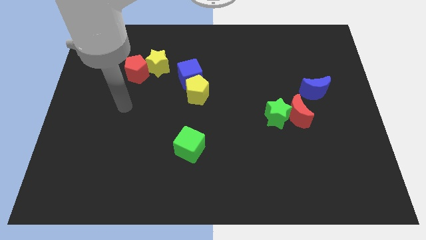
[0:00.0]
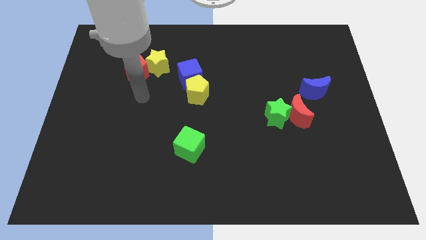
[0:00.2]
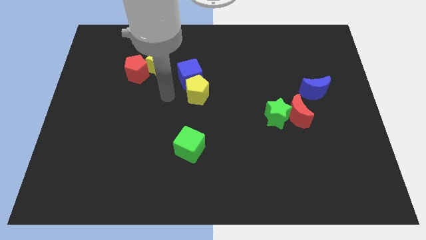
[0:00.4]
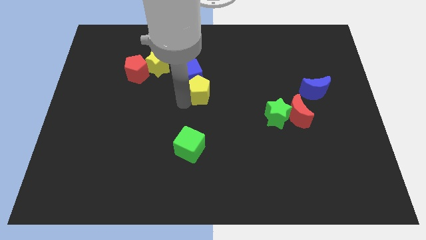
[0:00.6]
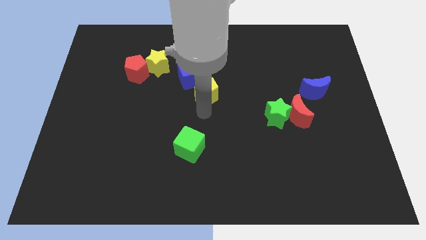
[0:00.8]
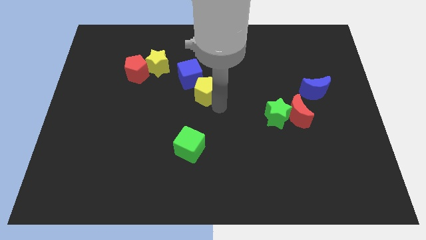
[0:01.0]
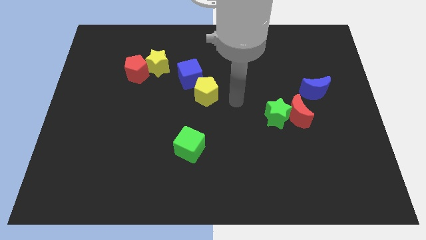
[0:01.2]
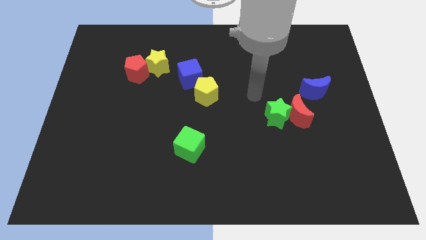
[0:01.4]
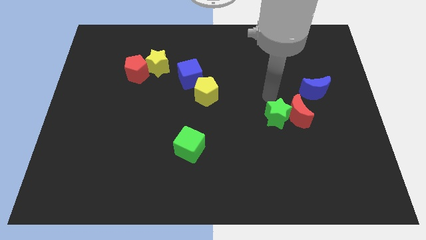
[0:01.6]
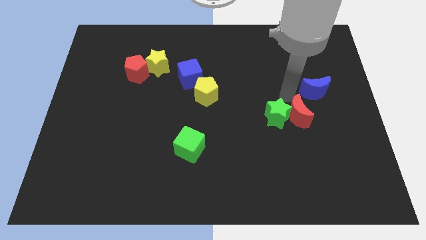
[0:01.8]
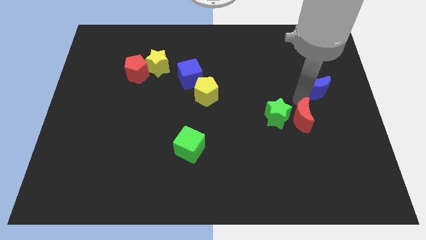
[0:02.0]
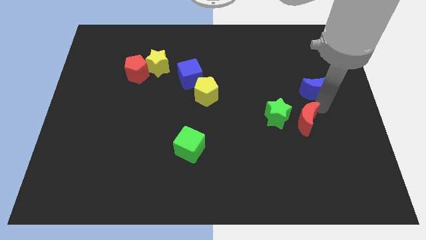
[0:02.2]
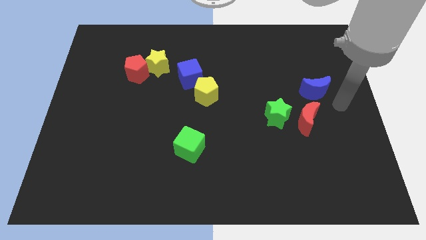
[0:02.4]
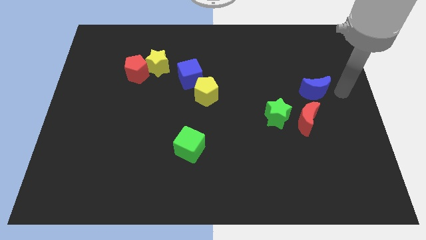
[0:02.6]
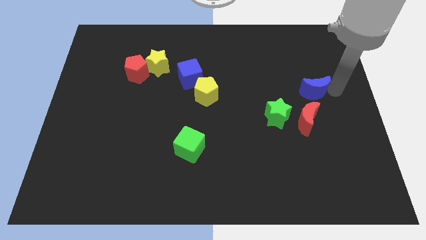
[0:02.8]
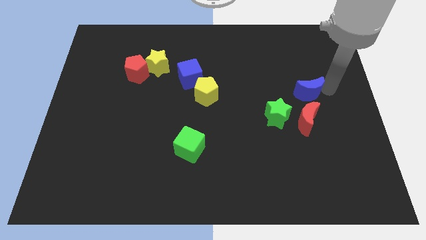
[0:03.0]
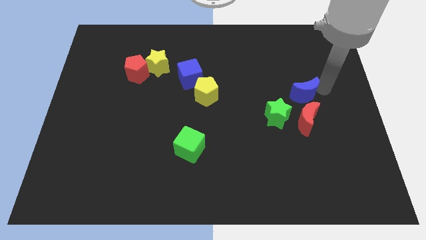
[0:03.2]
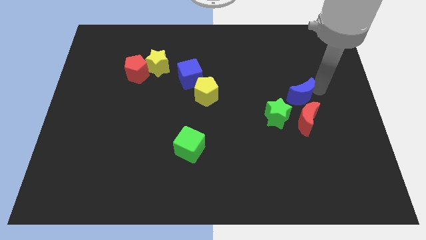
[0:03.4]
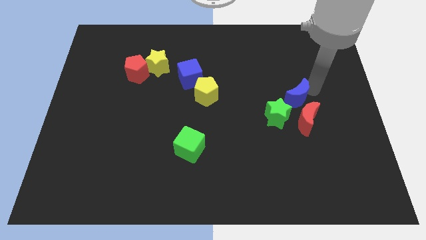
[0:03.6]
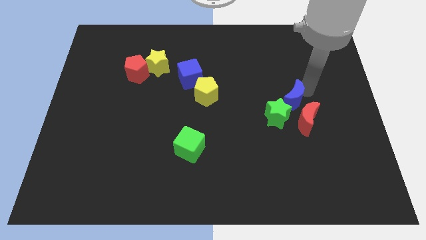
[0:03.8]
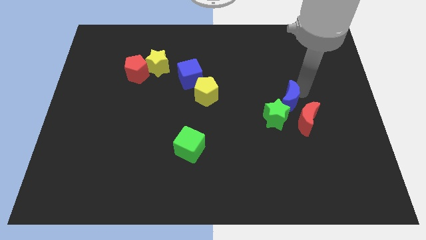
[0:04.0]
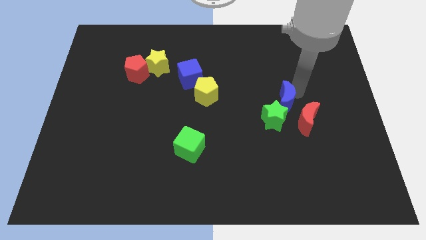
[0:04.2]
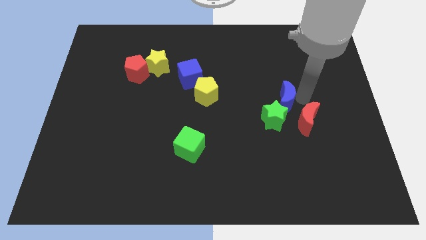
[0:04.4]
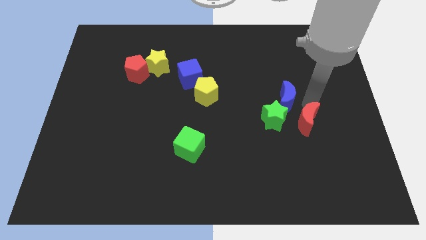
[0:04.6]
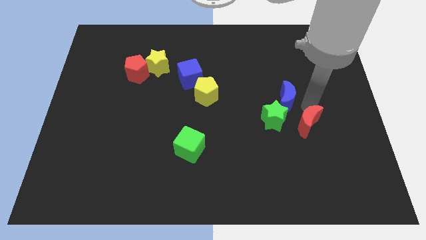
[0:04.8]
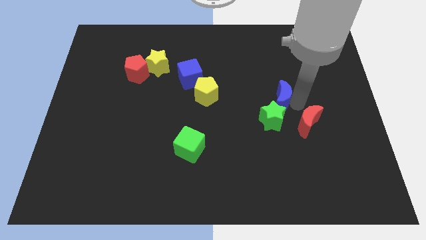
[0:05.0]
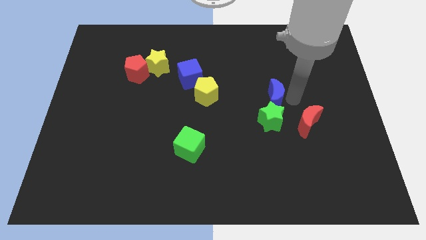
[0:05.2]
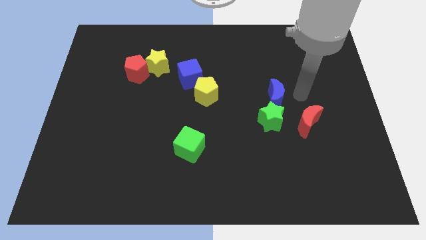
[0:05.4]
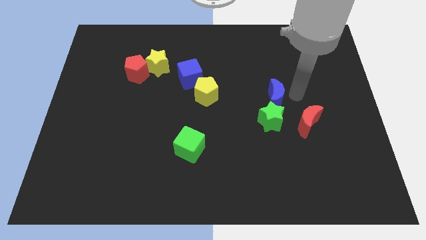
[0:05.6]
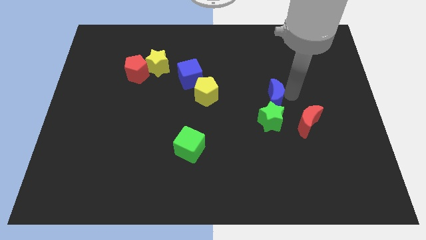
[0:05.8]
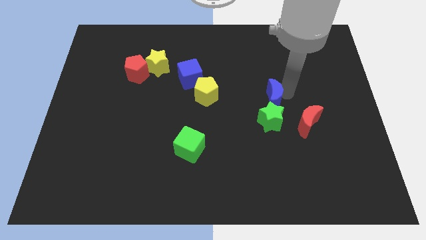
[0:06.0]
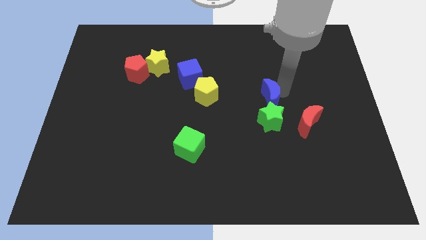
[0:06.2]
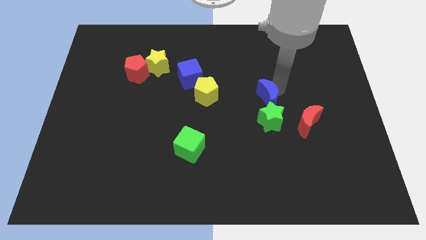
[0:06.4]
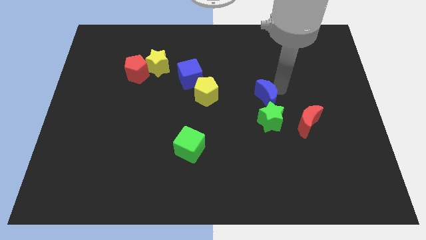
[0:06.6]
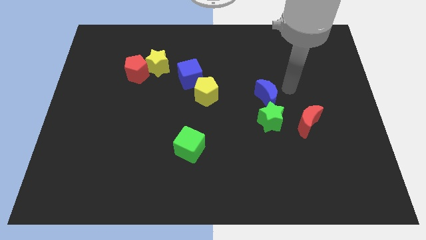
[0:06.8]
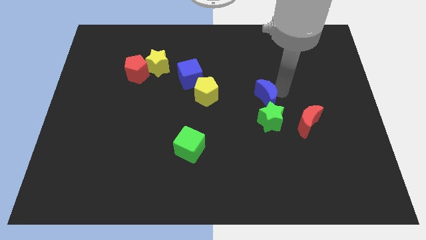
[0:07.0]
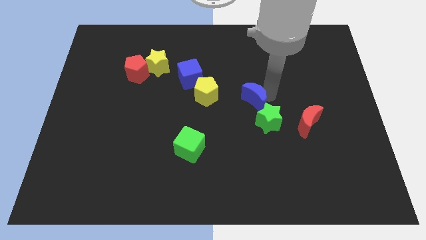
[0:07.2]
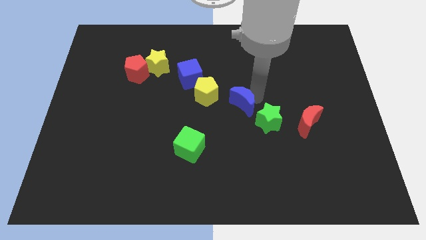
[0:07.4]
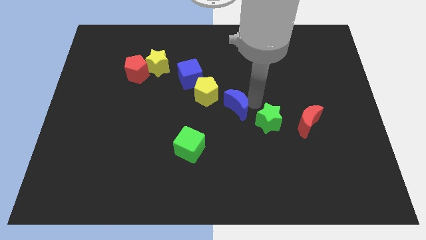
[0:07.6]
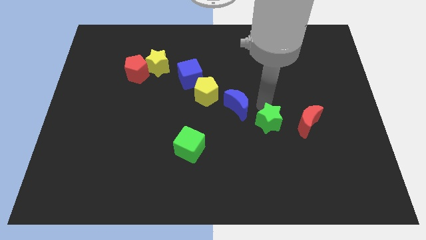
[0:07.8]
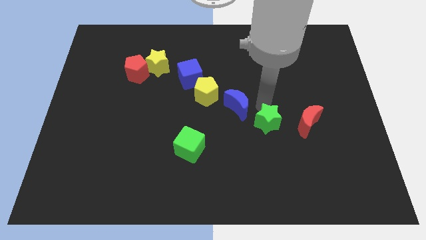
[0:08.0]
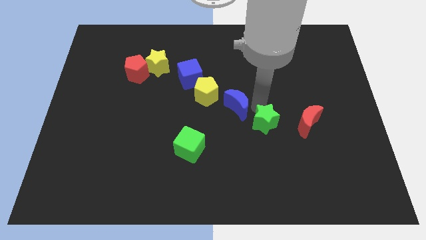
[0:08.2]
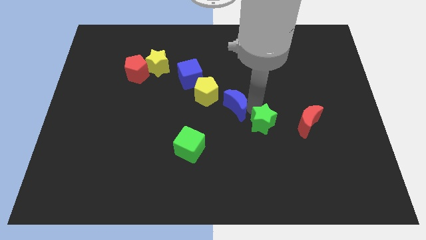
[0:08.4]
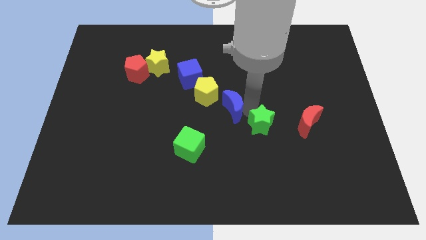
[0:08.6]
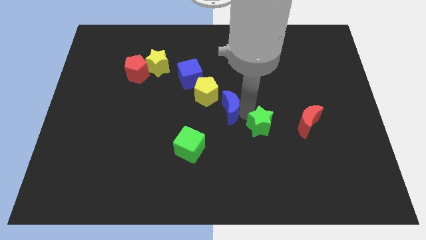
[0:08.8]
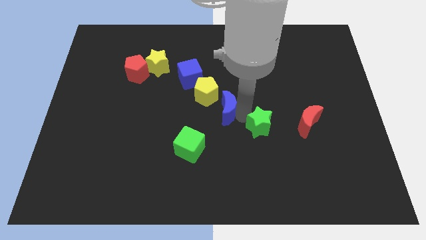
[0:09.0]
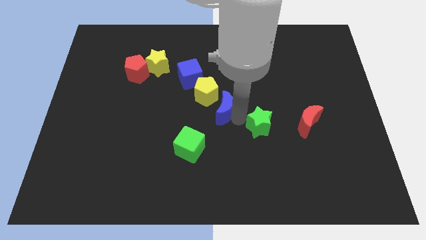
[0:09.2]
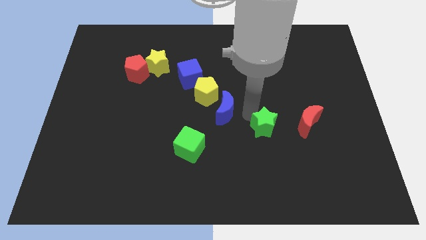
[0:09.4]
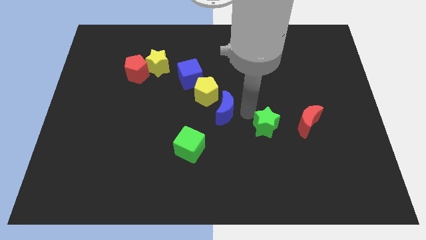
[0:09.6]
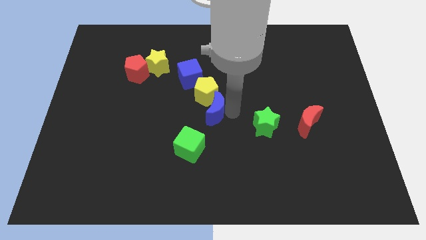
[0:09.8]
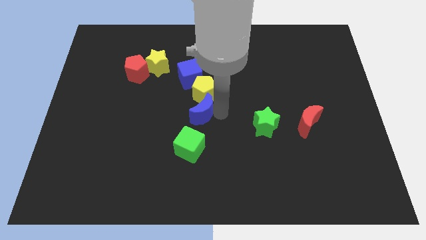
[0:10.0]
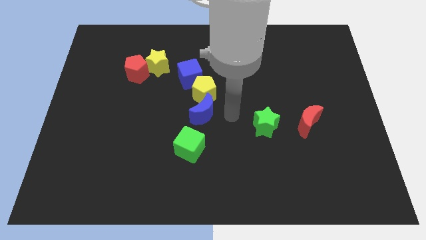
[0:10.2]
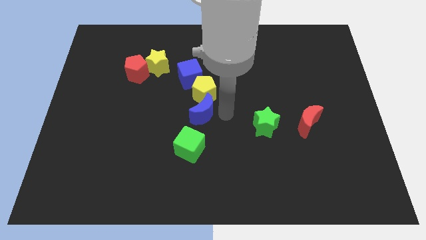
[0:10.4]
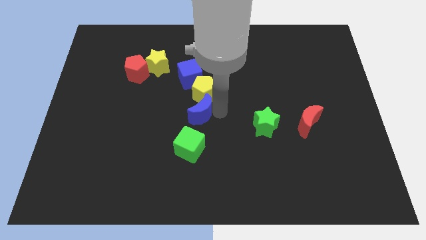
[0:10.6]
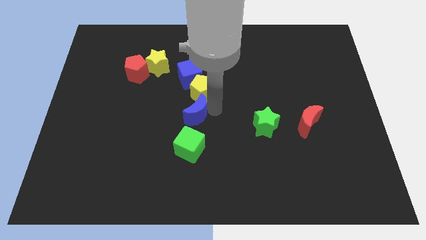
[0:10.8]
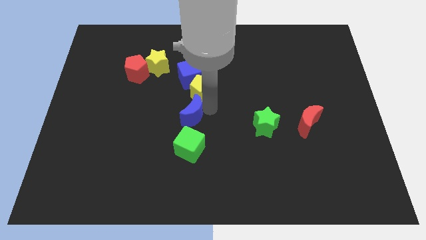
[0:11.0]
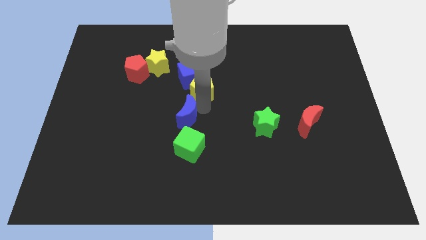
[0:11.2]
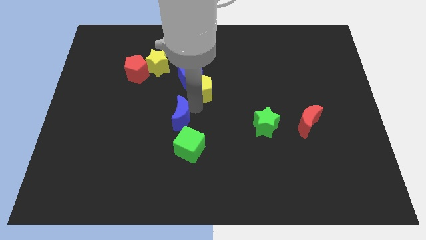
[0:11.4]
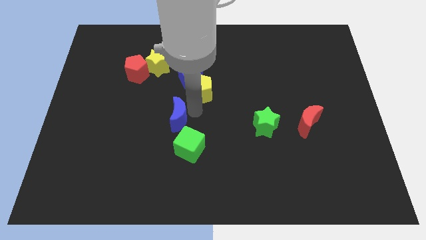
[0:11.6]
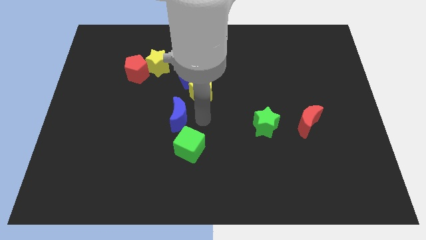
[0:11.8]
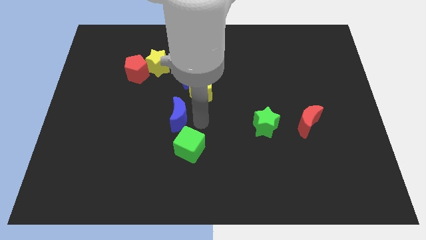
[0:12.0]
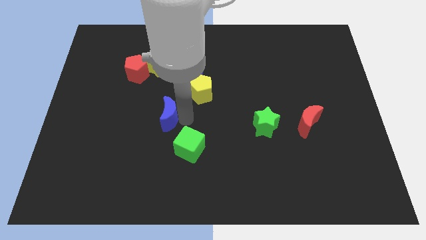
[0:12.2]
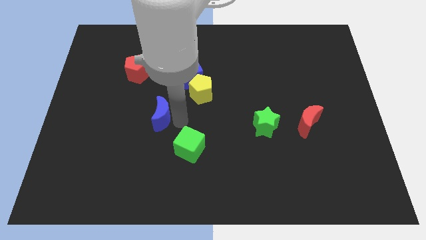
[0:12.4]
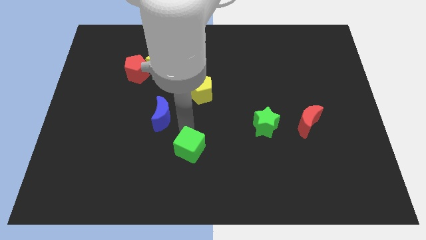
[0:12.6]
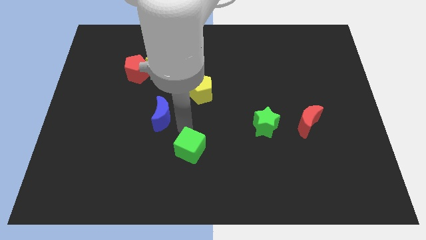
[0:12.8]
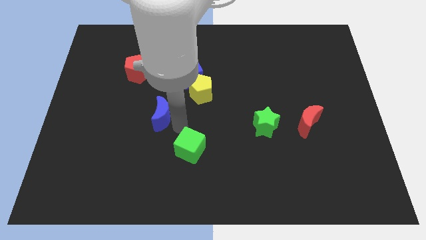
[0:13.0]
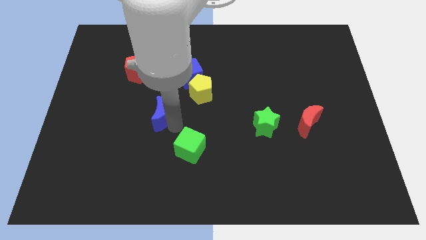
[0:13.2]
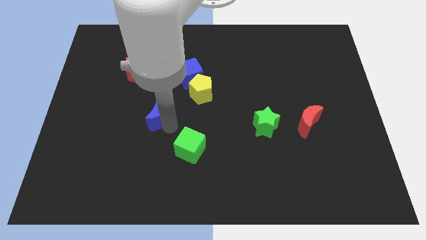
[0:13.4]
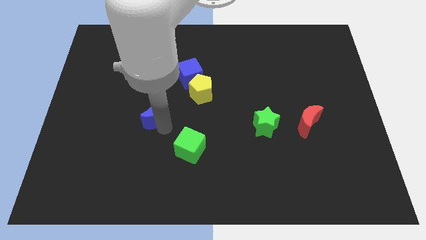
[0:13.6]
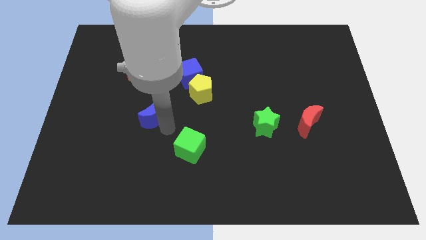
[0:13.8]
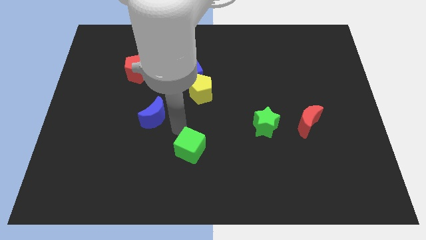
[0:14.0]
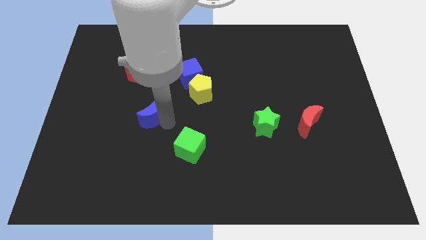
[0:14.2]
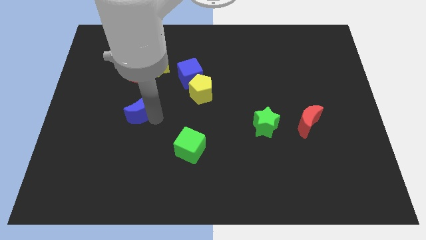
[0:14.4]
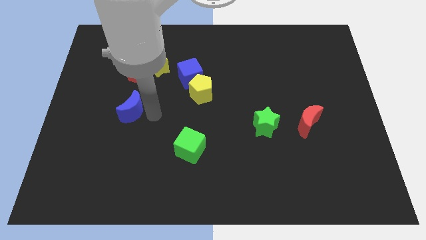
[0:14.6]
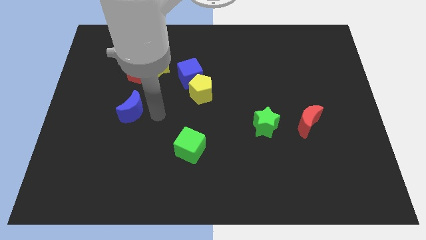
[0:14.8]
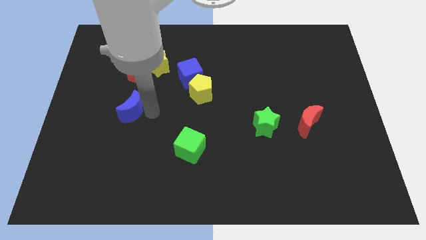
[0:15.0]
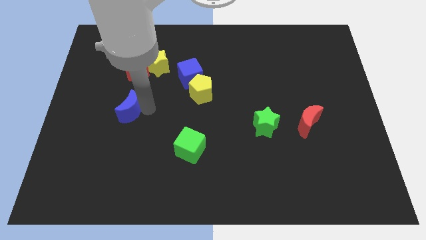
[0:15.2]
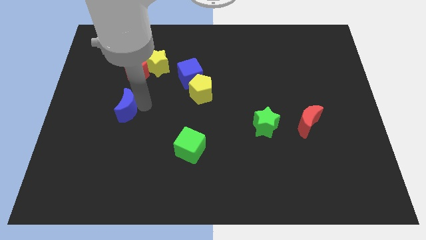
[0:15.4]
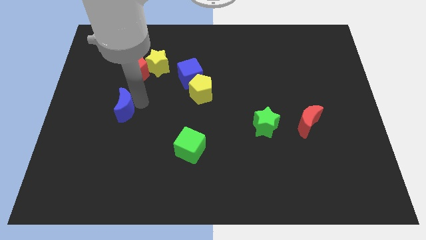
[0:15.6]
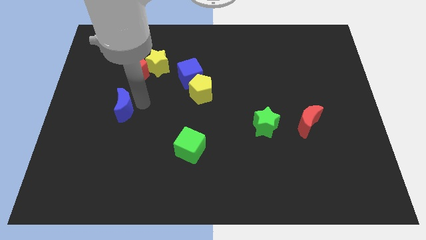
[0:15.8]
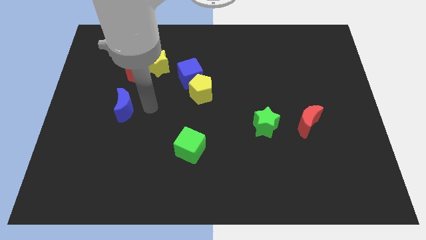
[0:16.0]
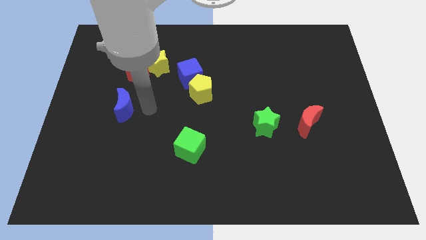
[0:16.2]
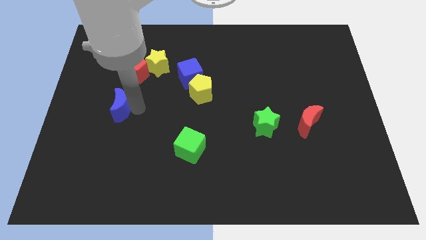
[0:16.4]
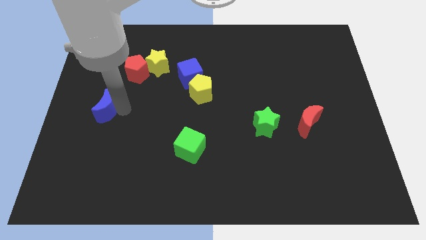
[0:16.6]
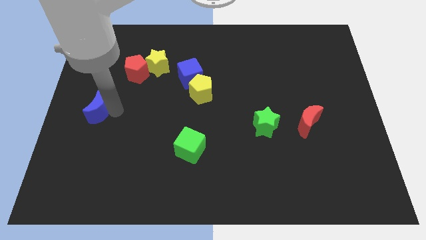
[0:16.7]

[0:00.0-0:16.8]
push the blue moon to the left side of the board
